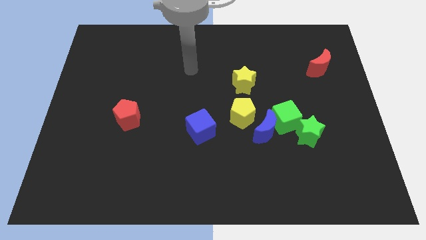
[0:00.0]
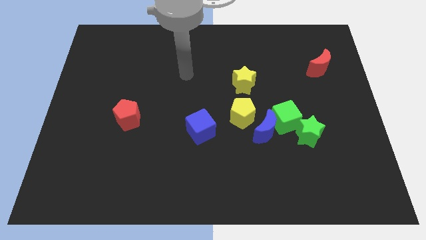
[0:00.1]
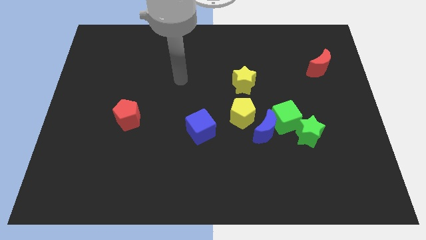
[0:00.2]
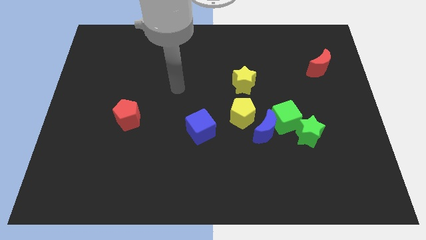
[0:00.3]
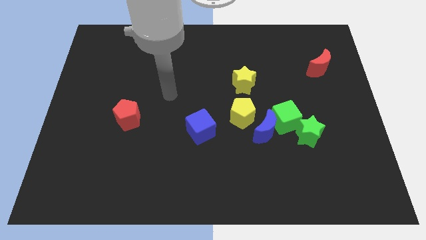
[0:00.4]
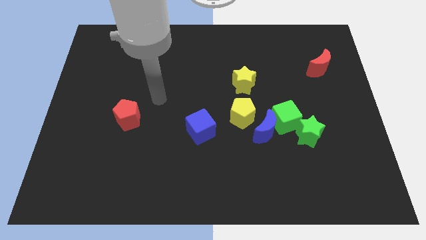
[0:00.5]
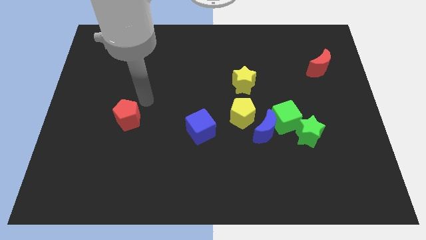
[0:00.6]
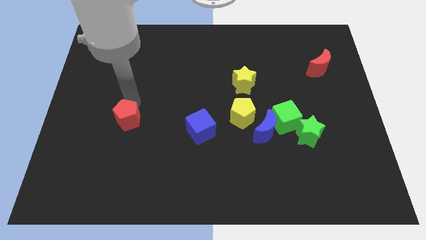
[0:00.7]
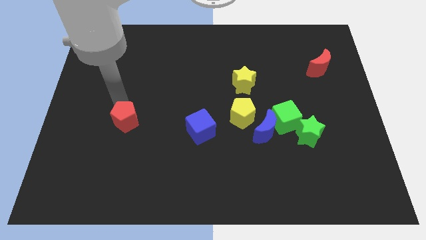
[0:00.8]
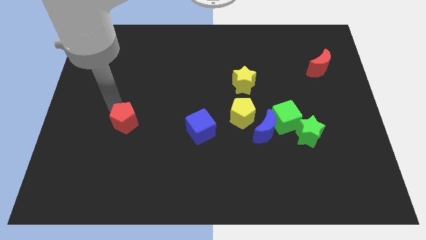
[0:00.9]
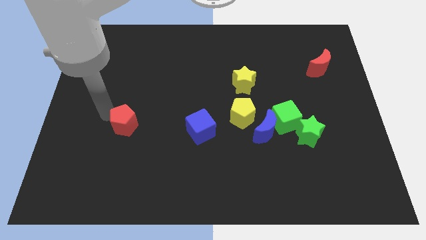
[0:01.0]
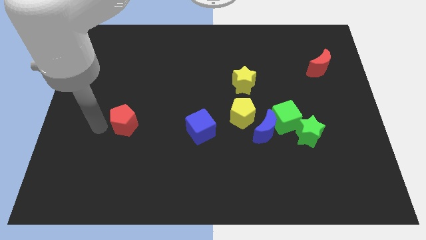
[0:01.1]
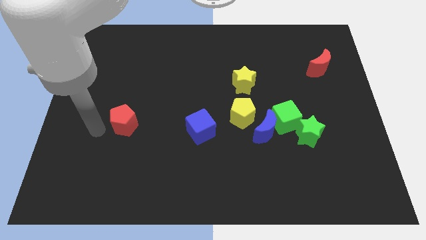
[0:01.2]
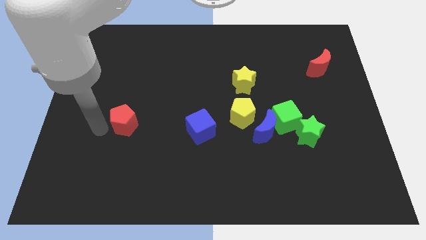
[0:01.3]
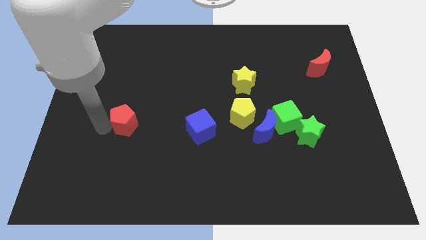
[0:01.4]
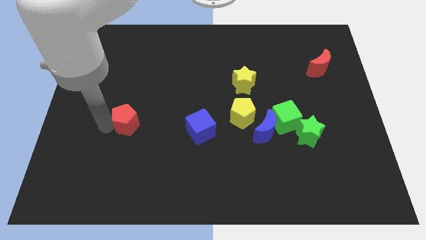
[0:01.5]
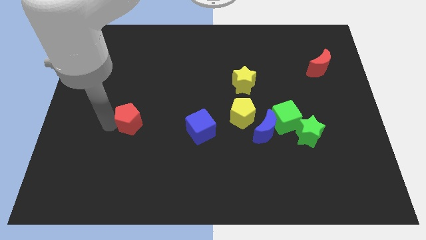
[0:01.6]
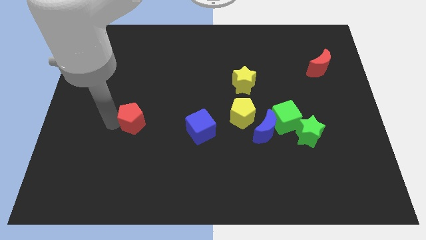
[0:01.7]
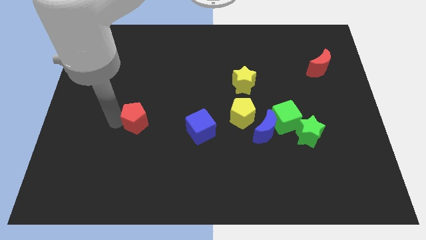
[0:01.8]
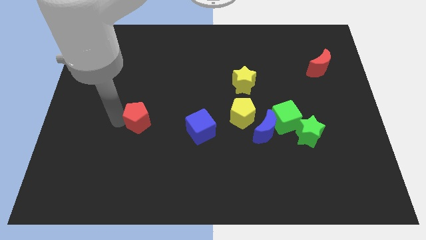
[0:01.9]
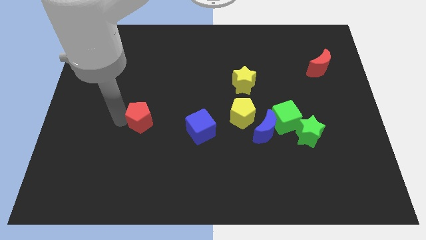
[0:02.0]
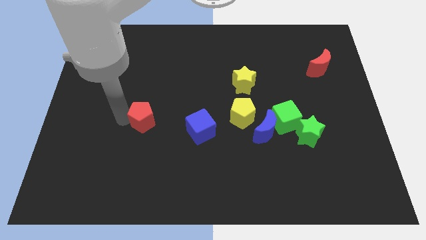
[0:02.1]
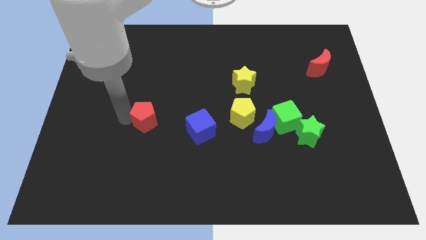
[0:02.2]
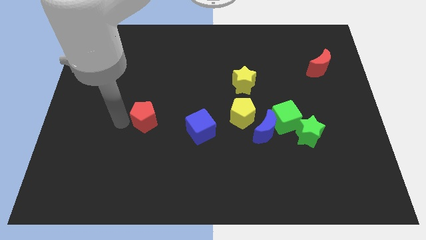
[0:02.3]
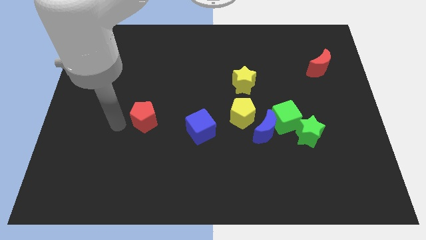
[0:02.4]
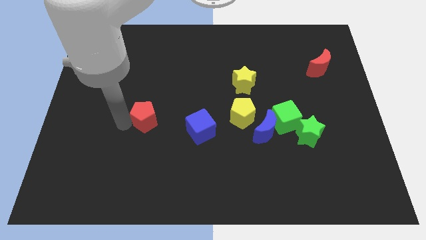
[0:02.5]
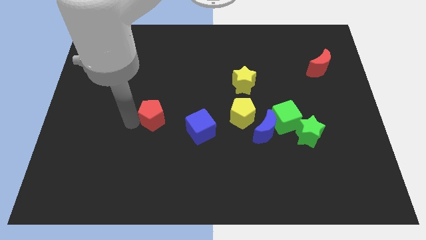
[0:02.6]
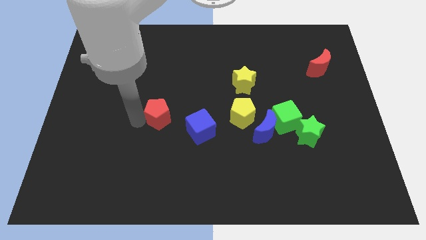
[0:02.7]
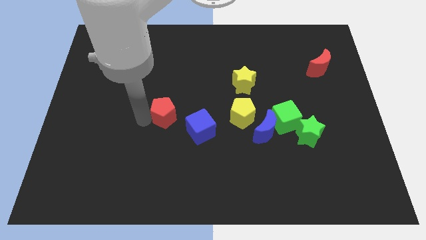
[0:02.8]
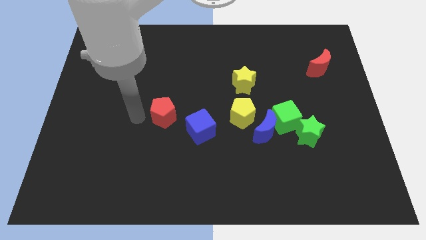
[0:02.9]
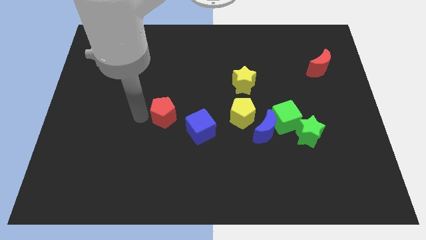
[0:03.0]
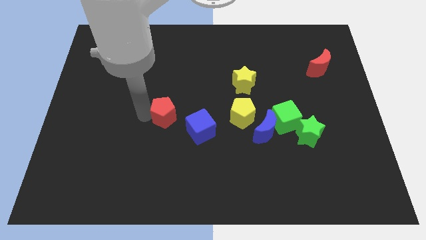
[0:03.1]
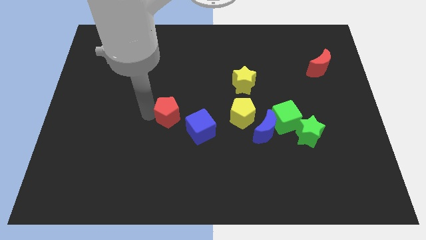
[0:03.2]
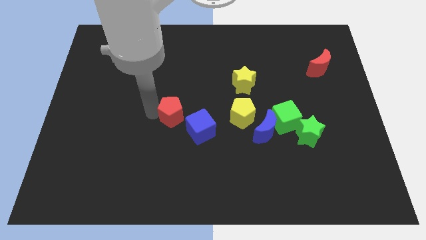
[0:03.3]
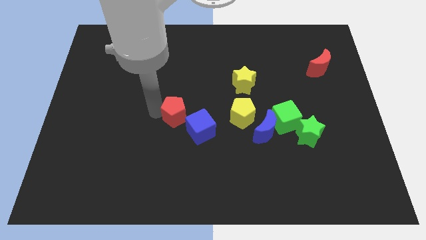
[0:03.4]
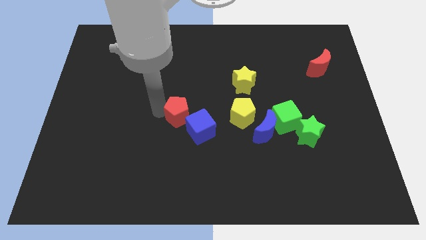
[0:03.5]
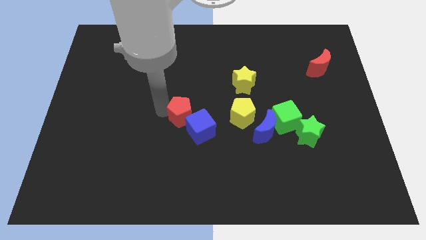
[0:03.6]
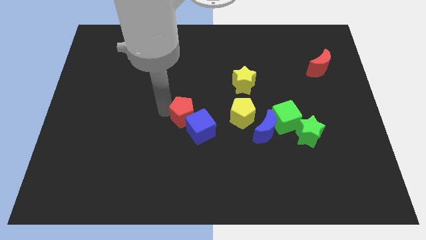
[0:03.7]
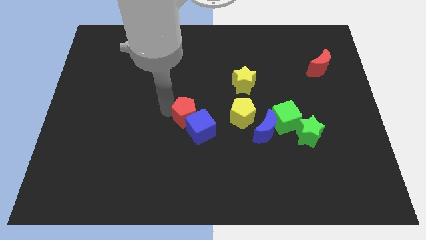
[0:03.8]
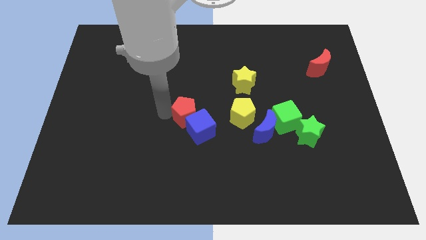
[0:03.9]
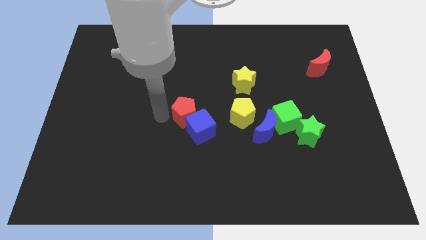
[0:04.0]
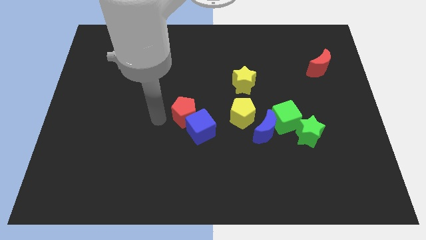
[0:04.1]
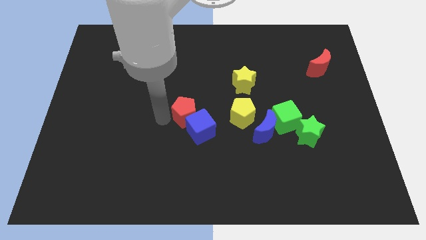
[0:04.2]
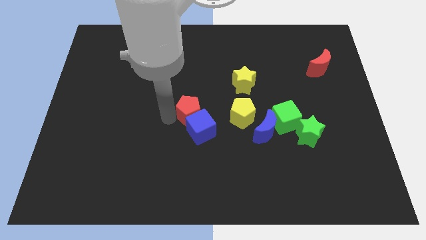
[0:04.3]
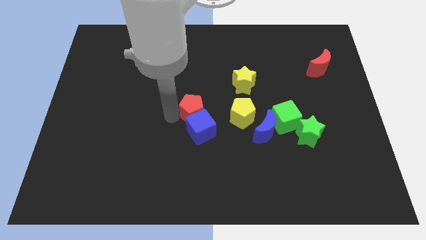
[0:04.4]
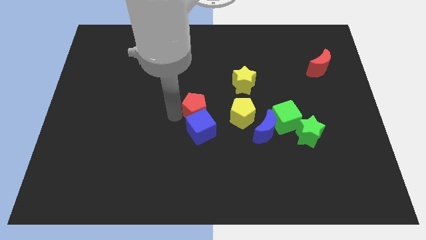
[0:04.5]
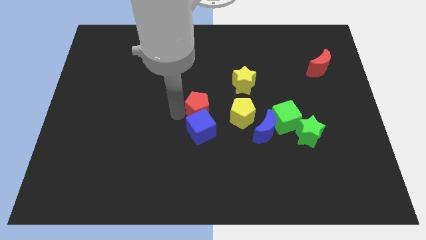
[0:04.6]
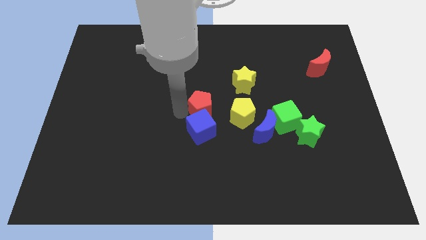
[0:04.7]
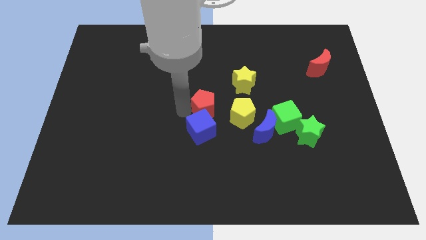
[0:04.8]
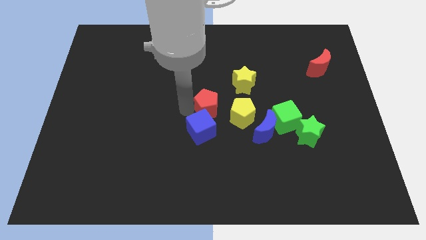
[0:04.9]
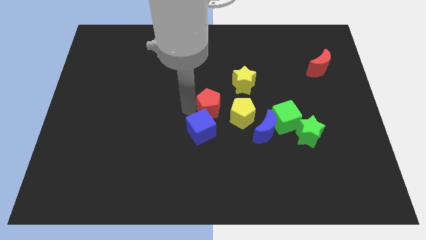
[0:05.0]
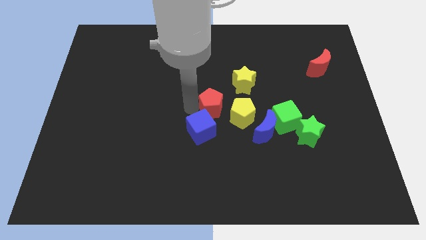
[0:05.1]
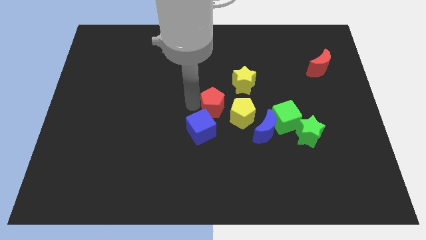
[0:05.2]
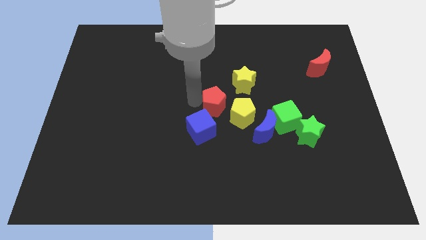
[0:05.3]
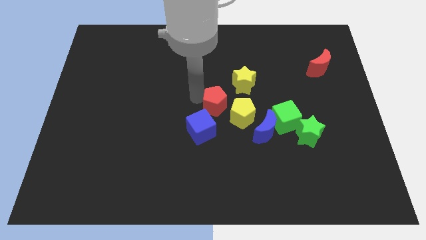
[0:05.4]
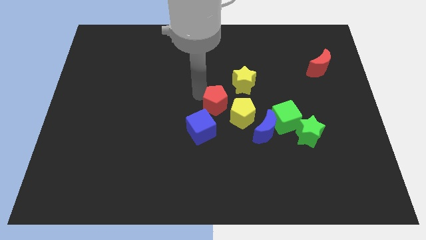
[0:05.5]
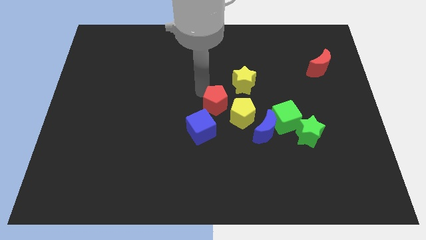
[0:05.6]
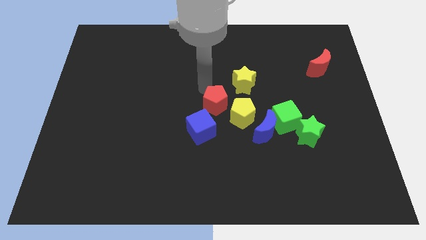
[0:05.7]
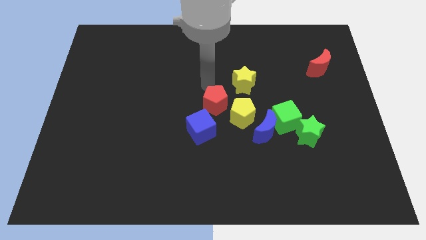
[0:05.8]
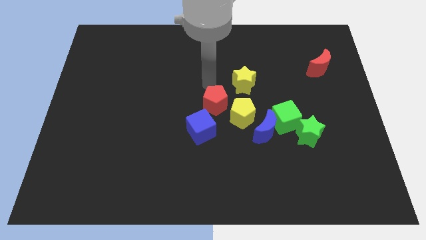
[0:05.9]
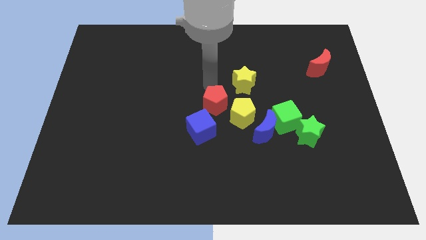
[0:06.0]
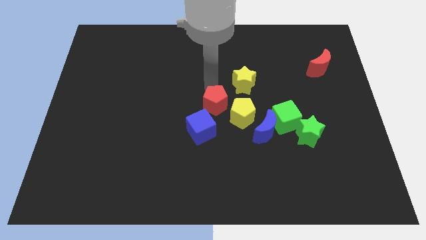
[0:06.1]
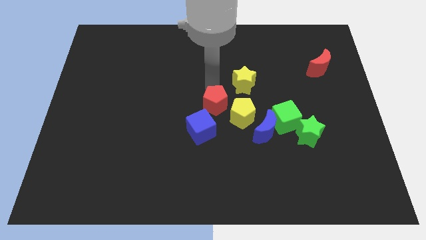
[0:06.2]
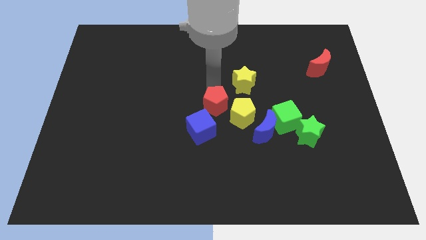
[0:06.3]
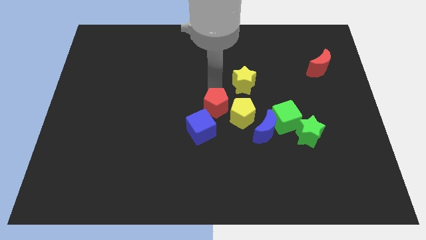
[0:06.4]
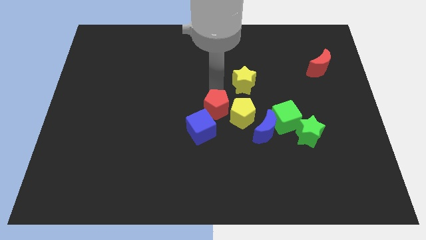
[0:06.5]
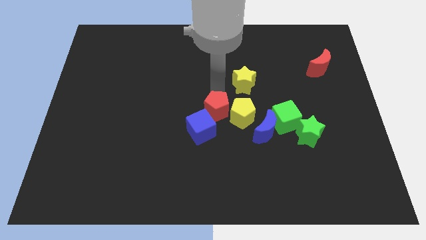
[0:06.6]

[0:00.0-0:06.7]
slide the red pentagon to the left of the green cube
